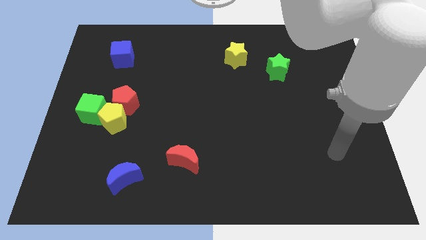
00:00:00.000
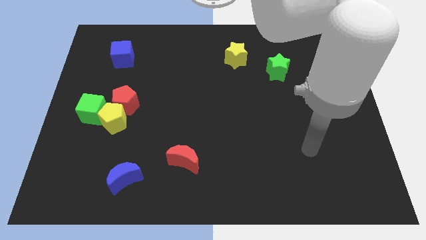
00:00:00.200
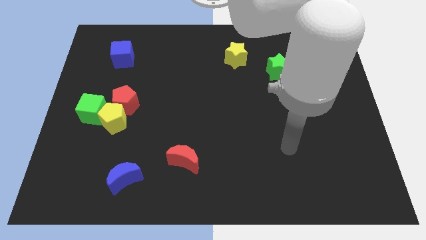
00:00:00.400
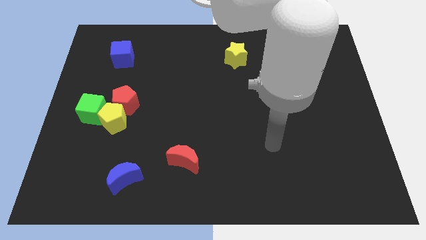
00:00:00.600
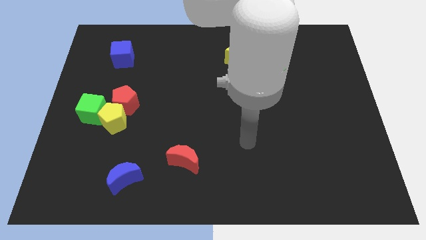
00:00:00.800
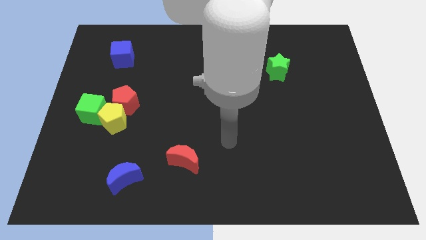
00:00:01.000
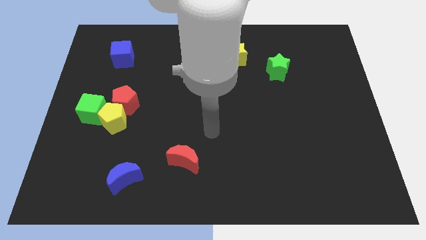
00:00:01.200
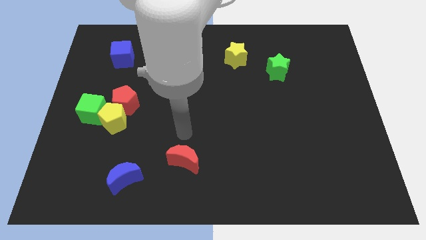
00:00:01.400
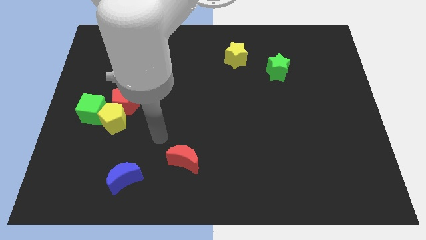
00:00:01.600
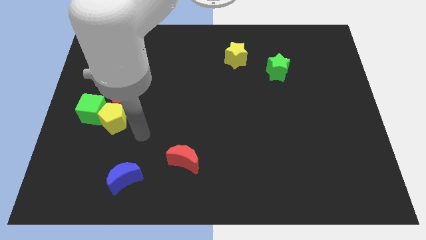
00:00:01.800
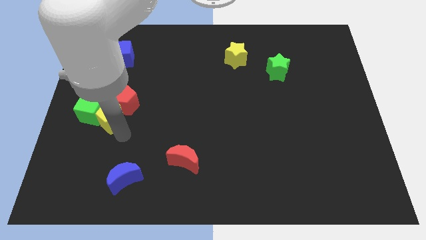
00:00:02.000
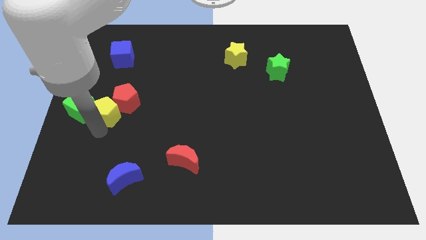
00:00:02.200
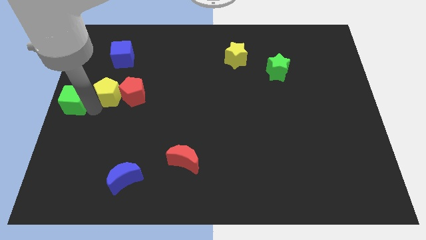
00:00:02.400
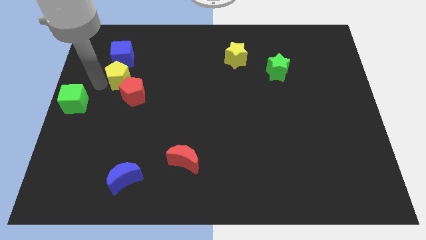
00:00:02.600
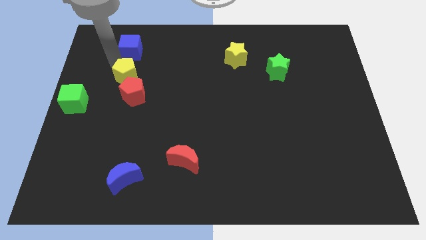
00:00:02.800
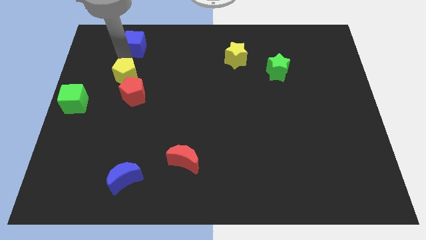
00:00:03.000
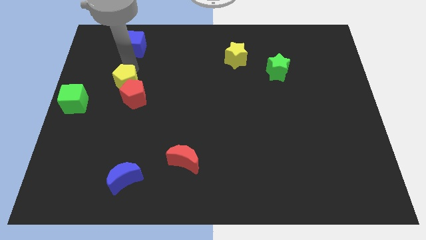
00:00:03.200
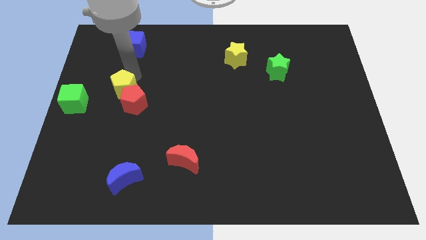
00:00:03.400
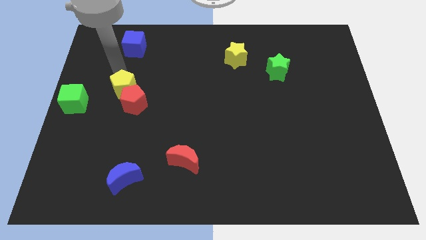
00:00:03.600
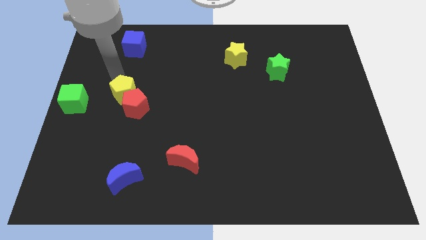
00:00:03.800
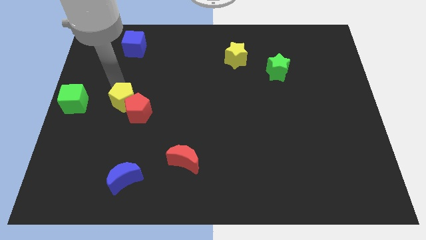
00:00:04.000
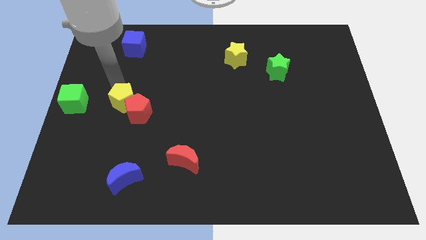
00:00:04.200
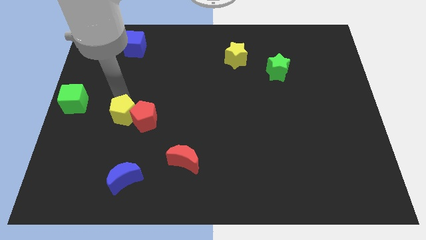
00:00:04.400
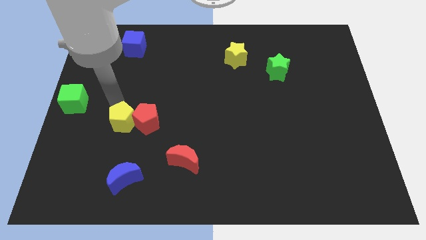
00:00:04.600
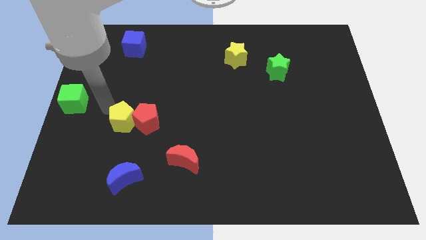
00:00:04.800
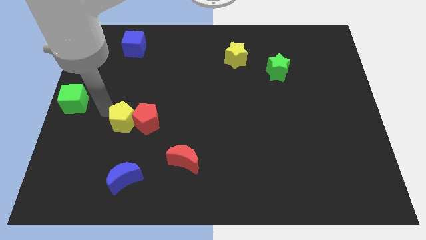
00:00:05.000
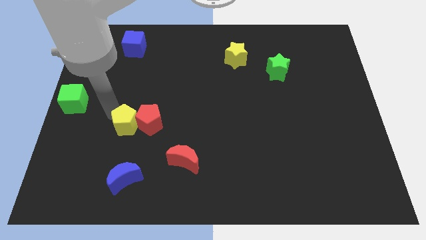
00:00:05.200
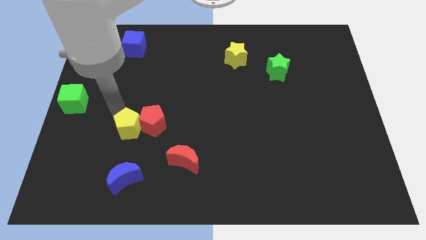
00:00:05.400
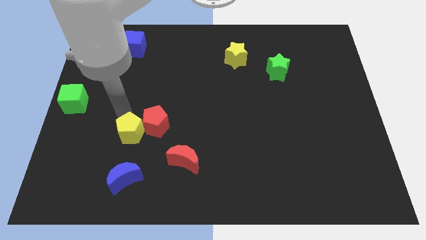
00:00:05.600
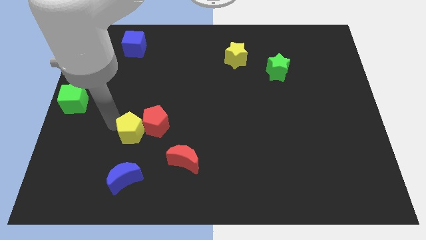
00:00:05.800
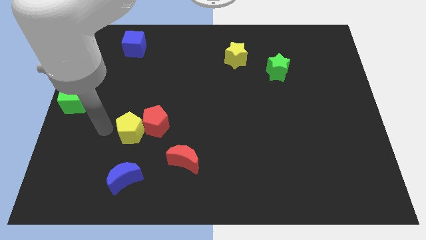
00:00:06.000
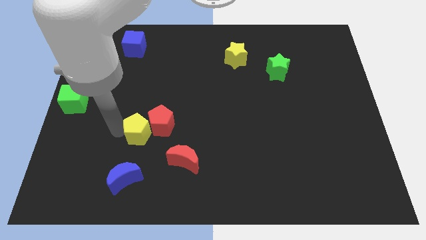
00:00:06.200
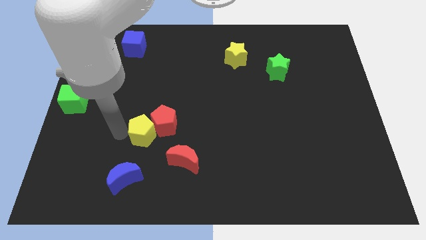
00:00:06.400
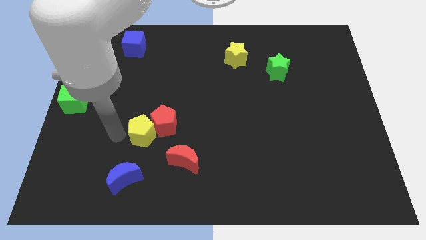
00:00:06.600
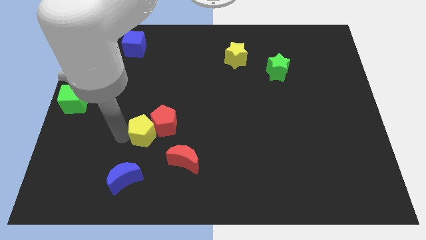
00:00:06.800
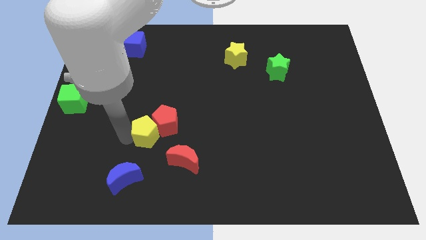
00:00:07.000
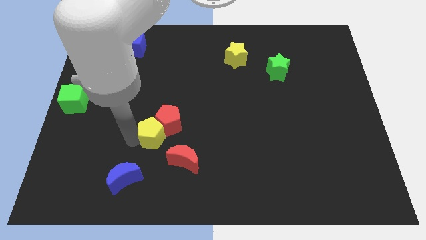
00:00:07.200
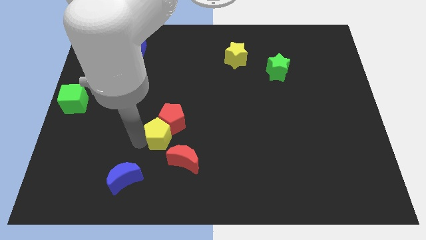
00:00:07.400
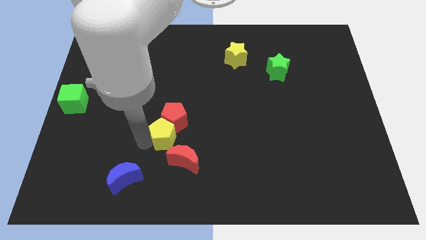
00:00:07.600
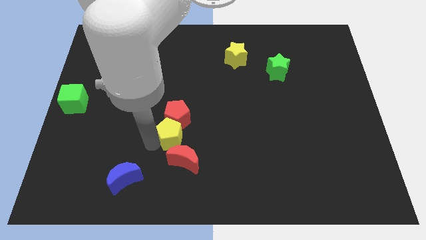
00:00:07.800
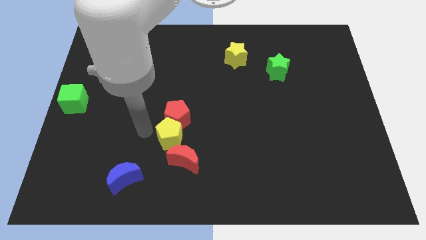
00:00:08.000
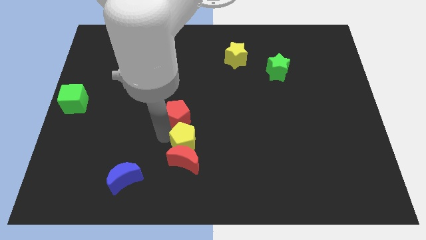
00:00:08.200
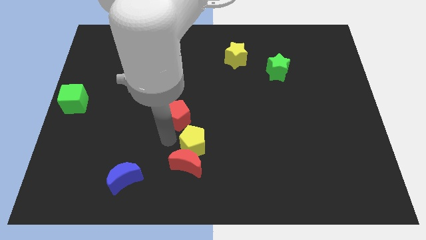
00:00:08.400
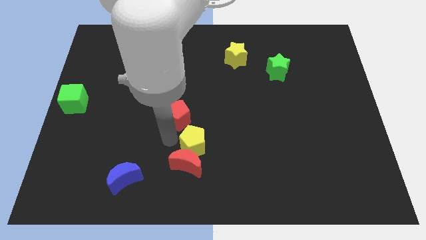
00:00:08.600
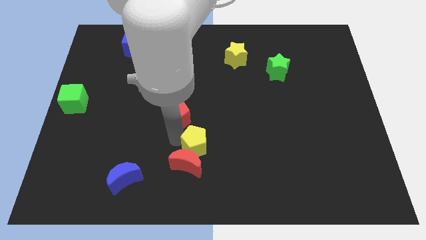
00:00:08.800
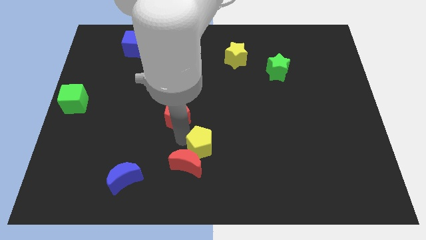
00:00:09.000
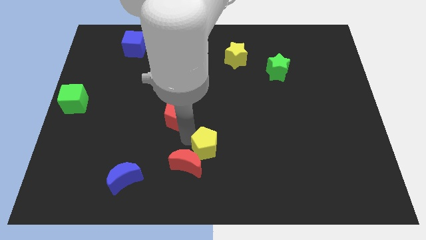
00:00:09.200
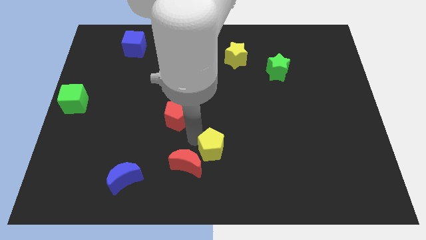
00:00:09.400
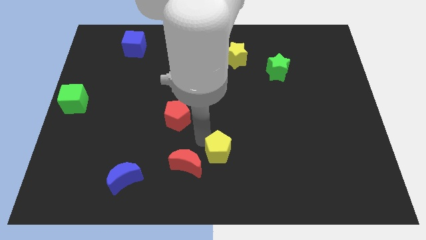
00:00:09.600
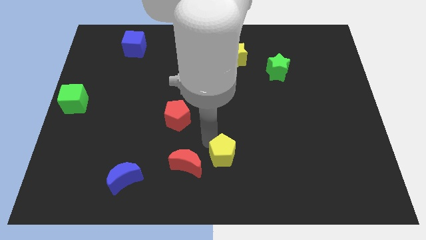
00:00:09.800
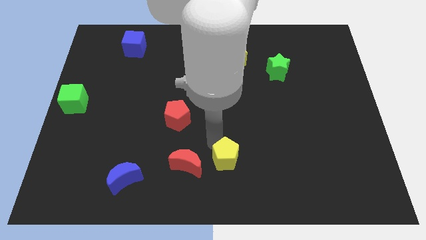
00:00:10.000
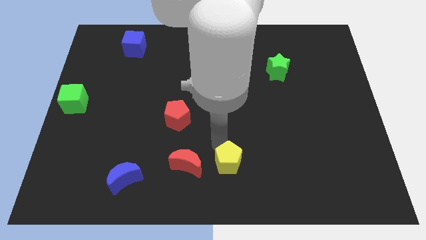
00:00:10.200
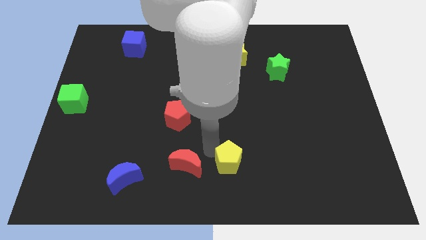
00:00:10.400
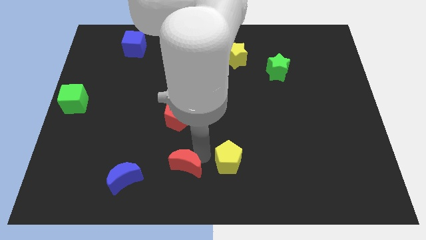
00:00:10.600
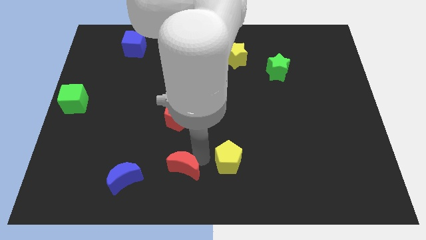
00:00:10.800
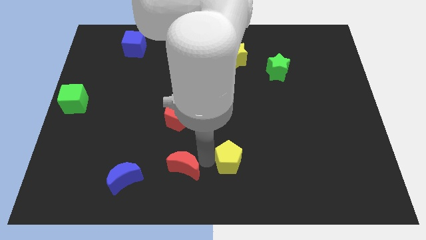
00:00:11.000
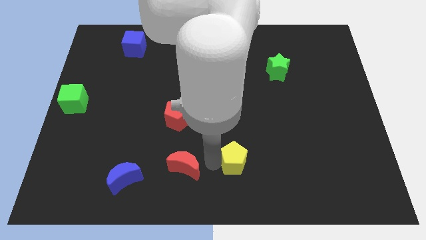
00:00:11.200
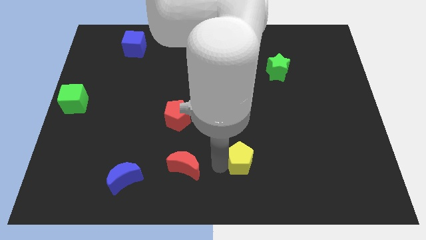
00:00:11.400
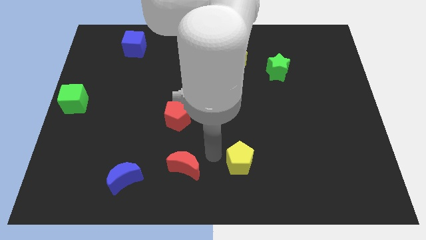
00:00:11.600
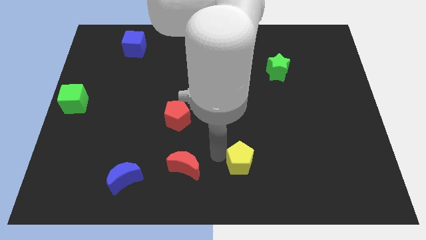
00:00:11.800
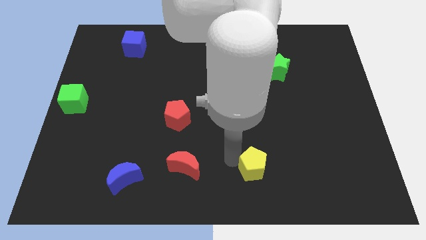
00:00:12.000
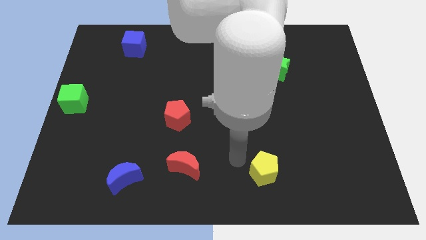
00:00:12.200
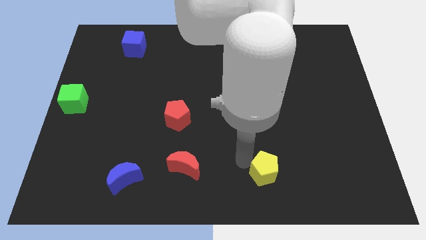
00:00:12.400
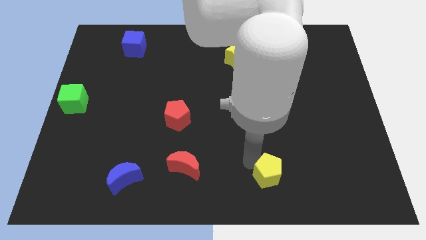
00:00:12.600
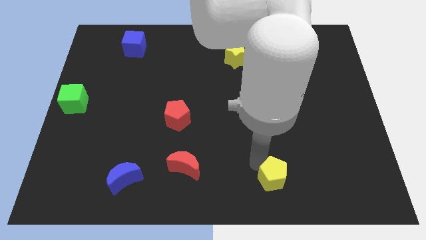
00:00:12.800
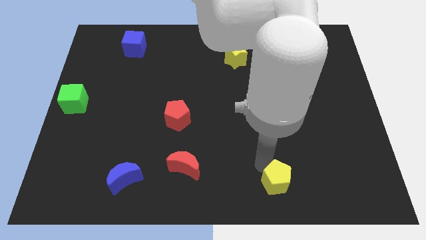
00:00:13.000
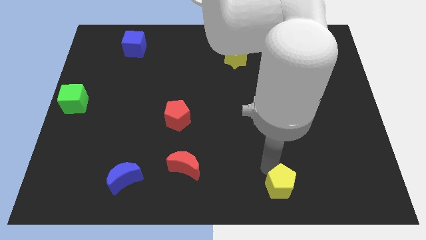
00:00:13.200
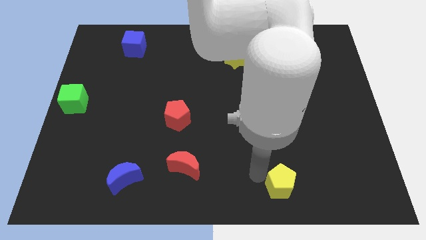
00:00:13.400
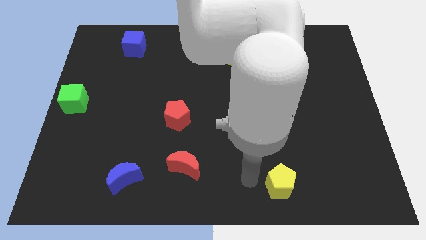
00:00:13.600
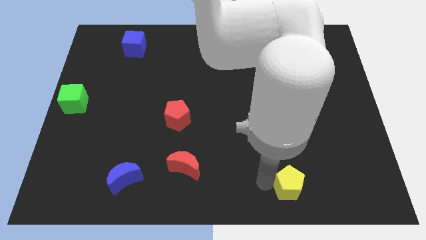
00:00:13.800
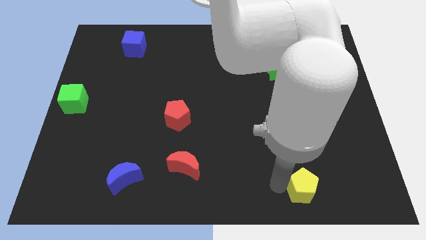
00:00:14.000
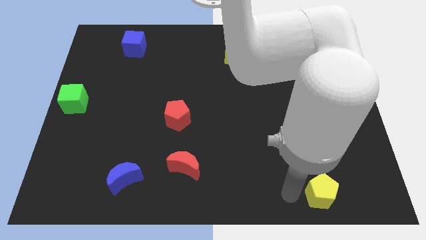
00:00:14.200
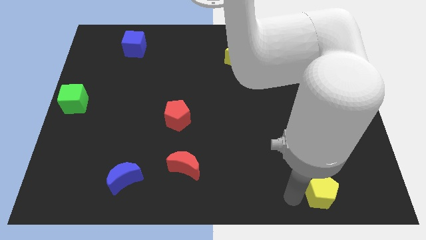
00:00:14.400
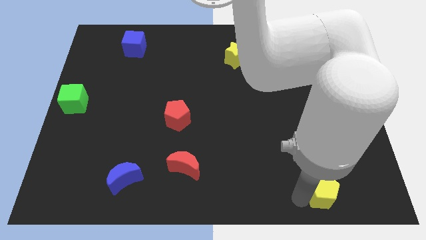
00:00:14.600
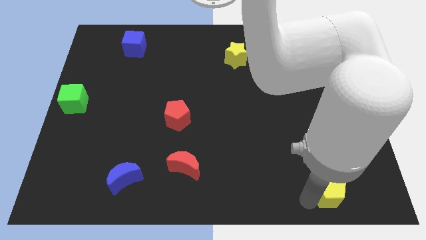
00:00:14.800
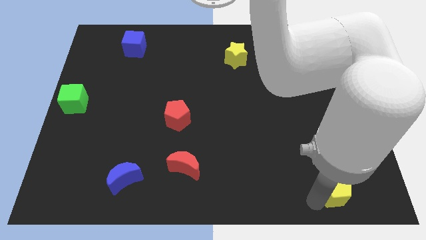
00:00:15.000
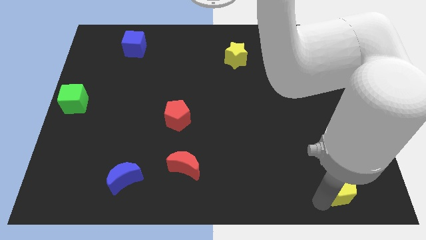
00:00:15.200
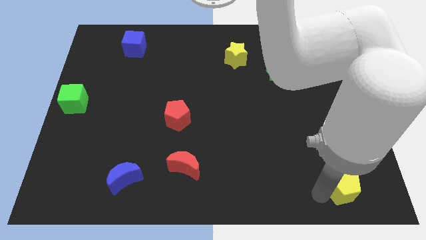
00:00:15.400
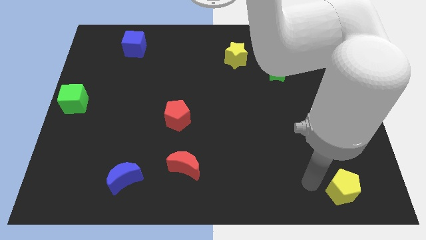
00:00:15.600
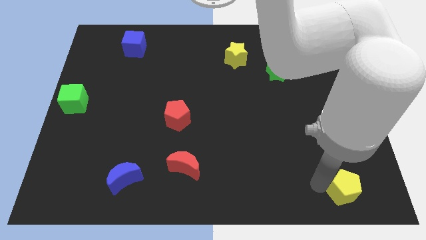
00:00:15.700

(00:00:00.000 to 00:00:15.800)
push the yellow pentagon to the bottom right of the board
